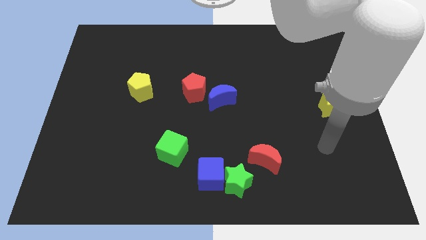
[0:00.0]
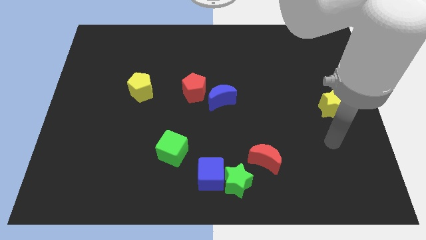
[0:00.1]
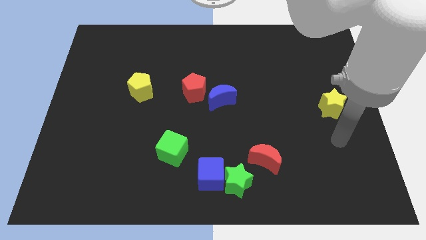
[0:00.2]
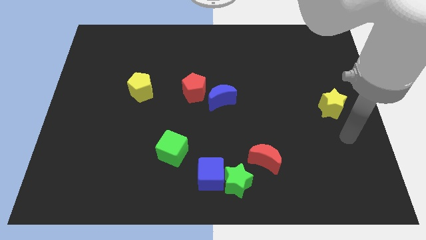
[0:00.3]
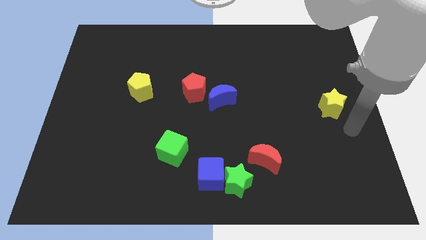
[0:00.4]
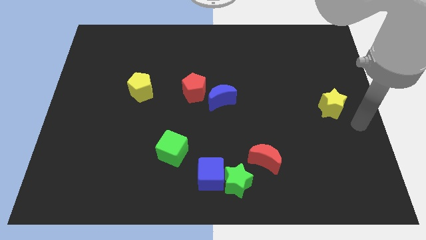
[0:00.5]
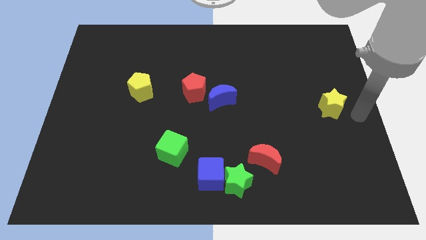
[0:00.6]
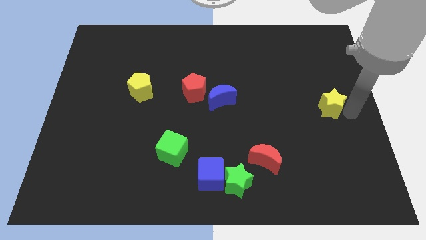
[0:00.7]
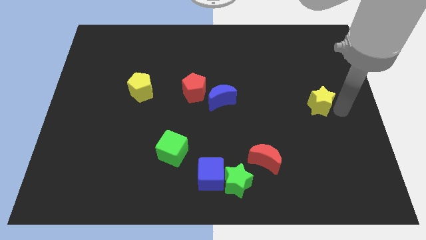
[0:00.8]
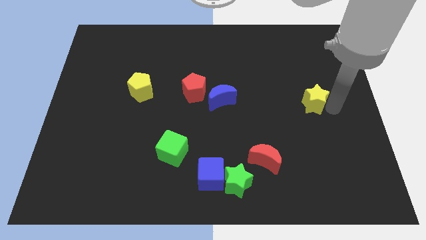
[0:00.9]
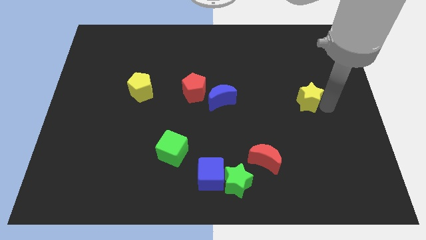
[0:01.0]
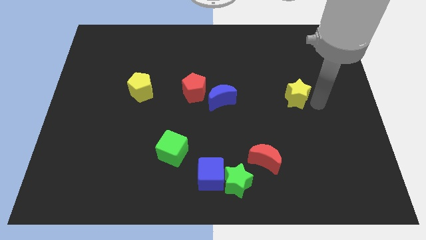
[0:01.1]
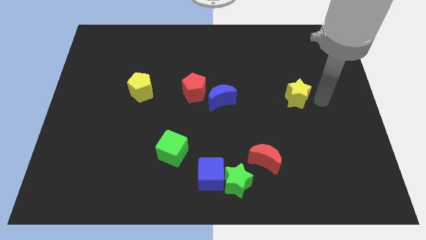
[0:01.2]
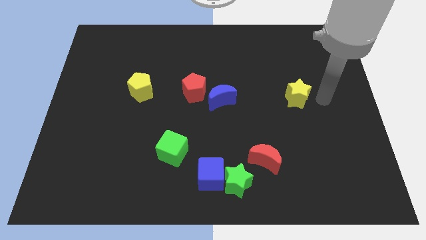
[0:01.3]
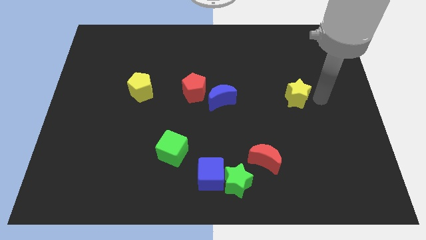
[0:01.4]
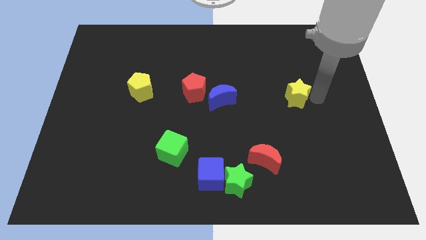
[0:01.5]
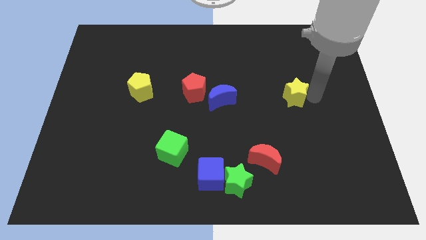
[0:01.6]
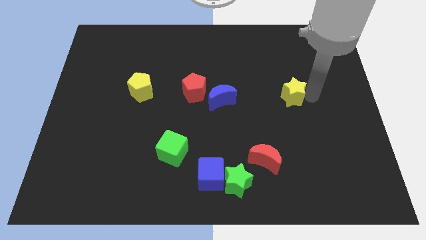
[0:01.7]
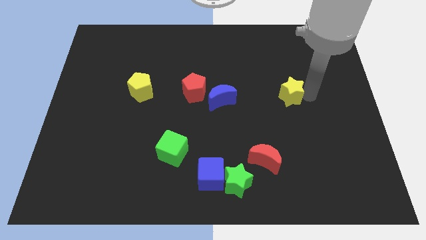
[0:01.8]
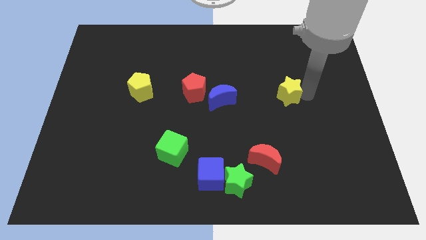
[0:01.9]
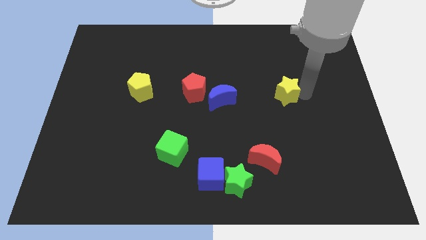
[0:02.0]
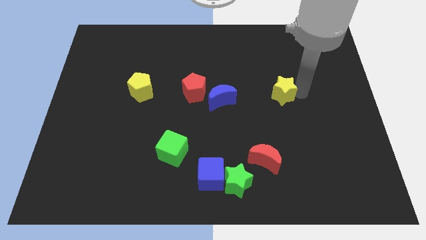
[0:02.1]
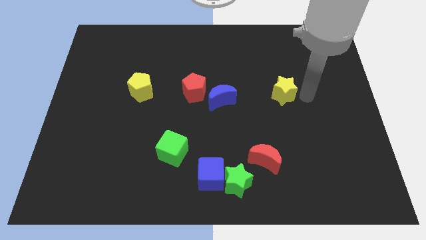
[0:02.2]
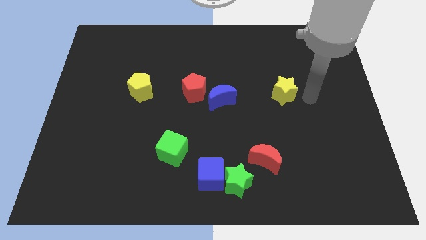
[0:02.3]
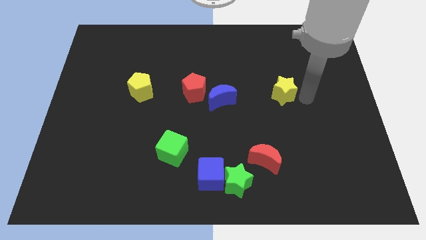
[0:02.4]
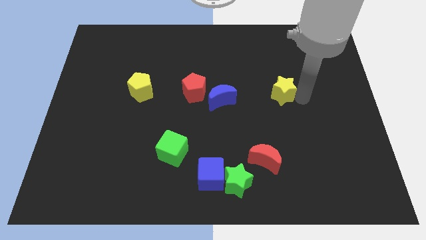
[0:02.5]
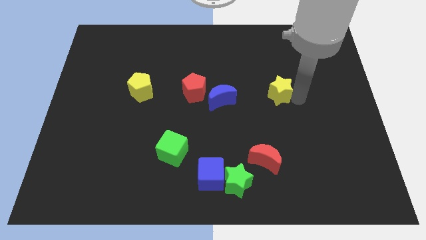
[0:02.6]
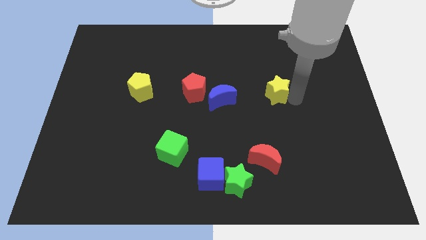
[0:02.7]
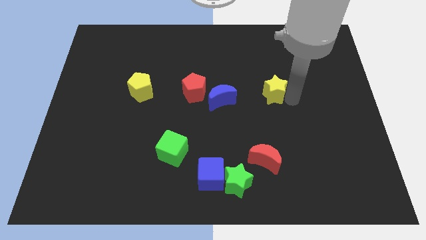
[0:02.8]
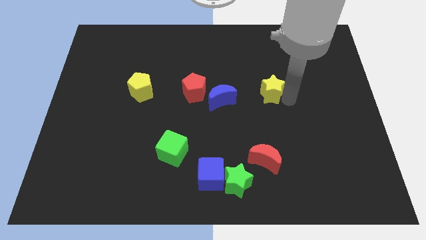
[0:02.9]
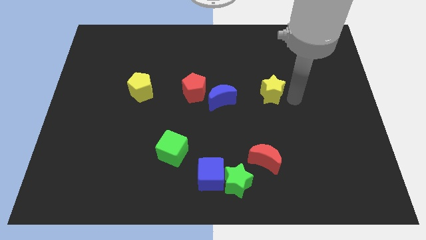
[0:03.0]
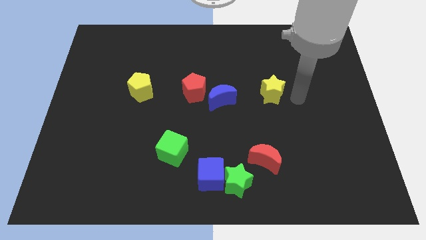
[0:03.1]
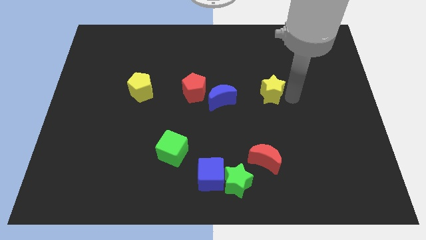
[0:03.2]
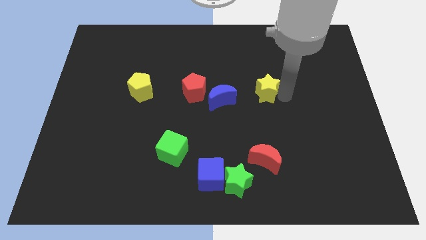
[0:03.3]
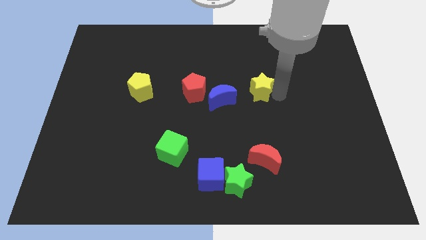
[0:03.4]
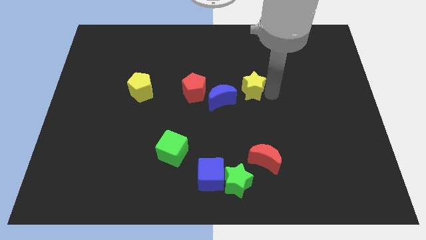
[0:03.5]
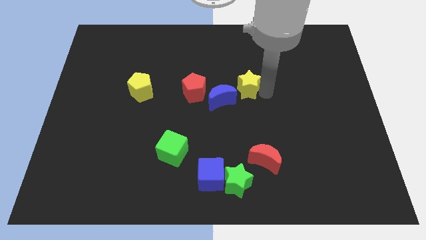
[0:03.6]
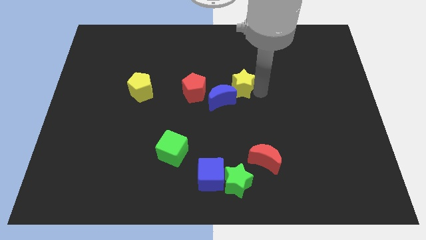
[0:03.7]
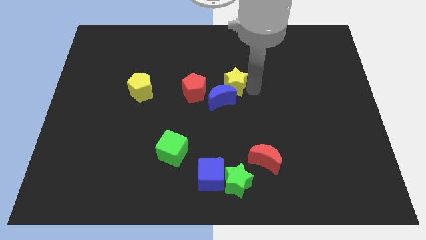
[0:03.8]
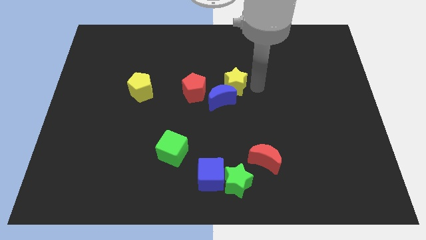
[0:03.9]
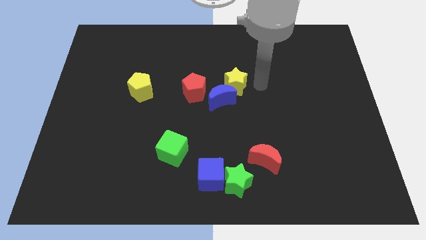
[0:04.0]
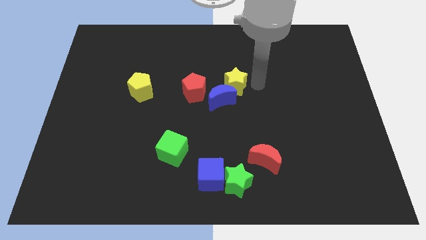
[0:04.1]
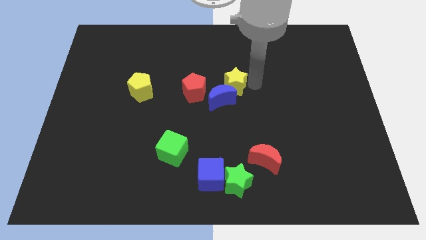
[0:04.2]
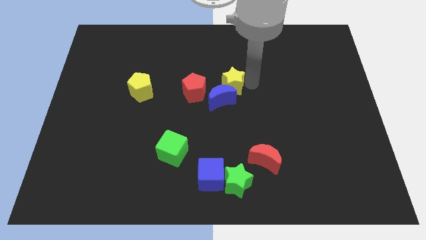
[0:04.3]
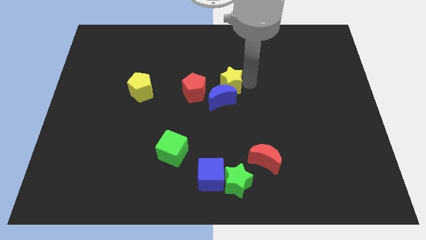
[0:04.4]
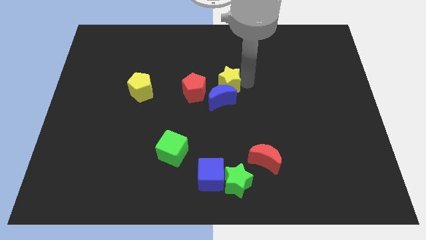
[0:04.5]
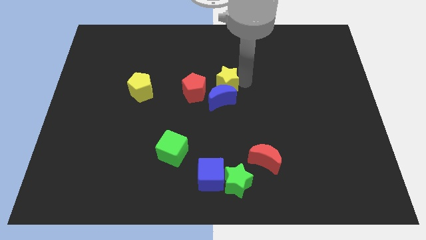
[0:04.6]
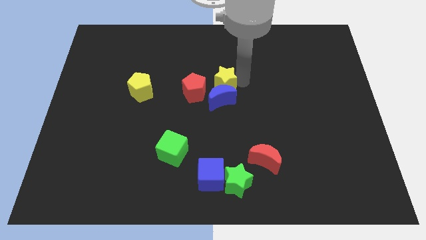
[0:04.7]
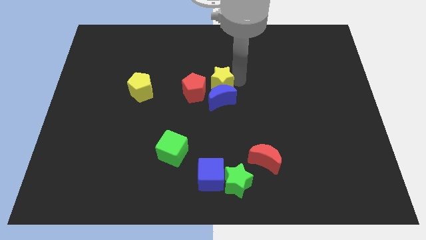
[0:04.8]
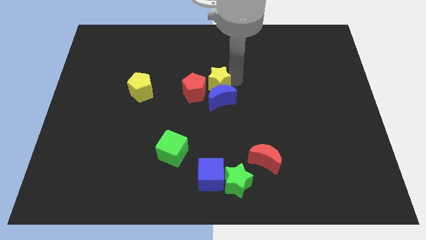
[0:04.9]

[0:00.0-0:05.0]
put the yellow star to the red pentagon

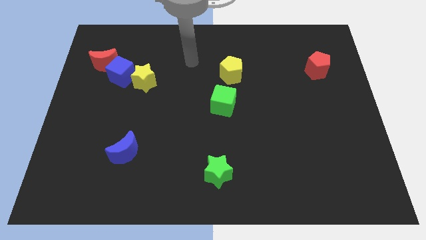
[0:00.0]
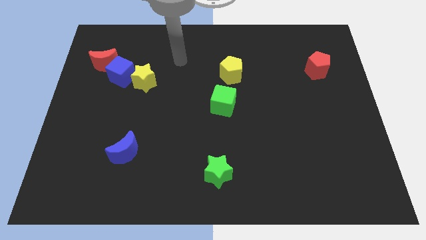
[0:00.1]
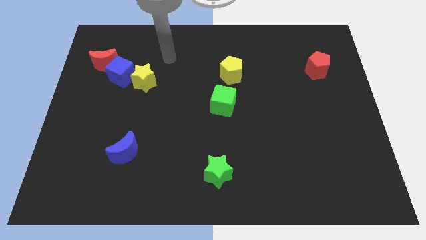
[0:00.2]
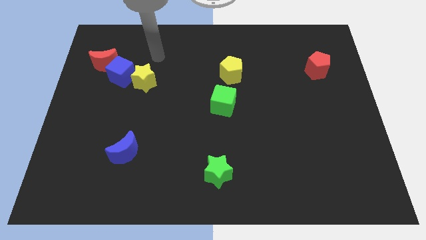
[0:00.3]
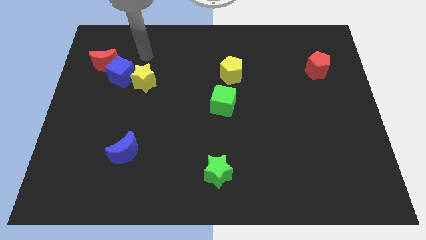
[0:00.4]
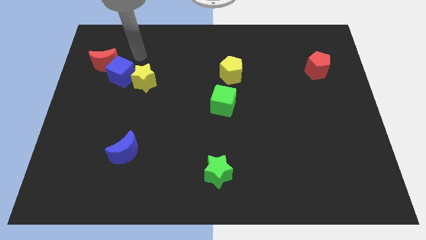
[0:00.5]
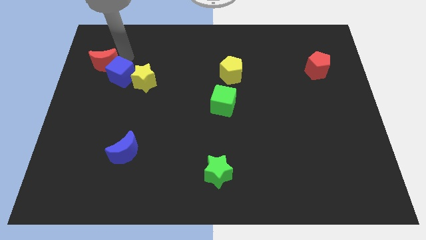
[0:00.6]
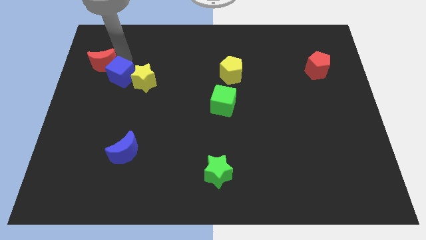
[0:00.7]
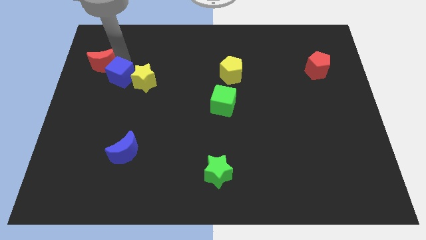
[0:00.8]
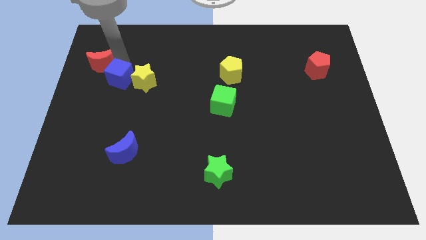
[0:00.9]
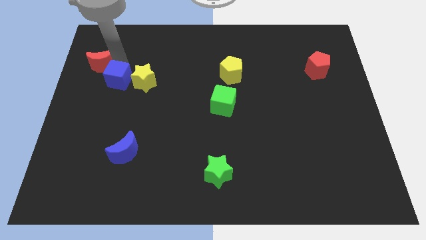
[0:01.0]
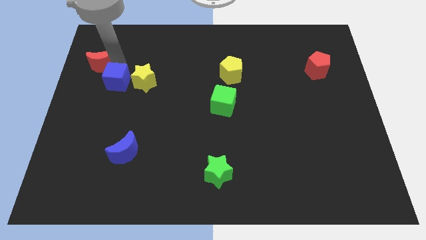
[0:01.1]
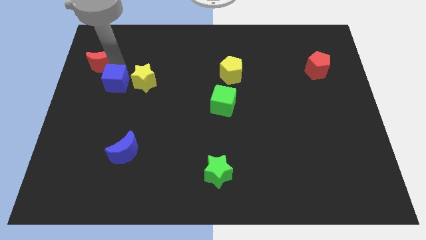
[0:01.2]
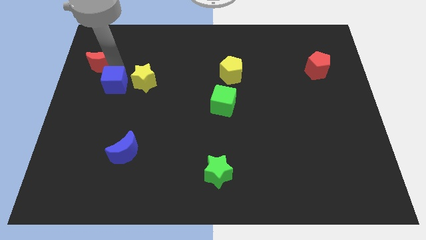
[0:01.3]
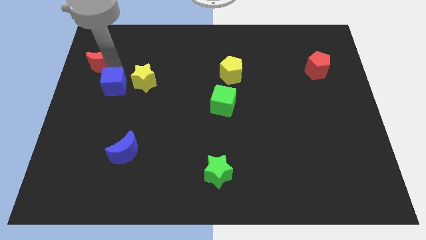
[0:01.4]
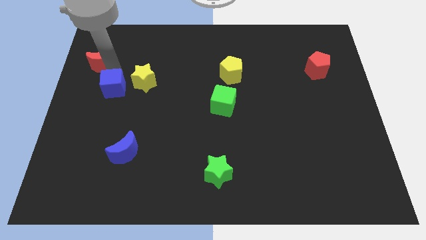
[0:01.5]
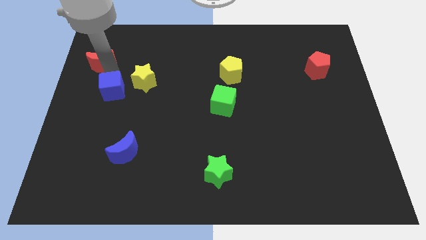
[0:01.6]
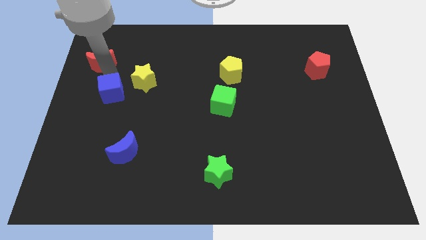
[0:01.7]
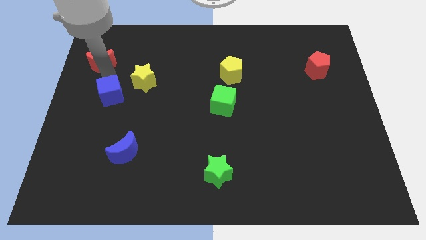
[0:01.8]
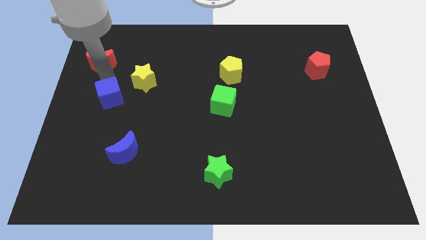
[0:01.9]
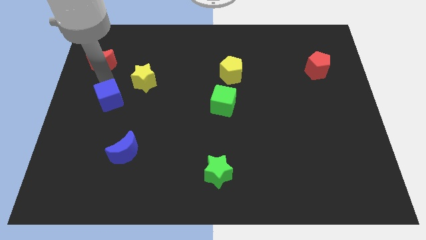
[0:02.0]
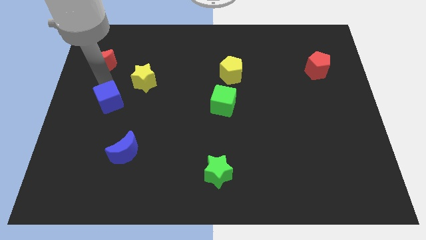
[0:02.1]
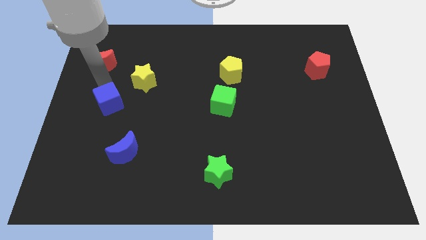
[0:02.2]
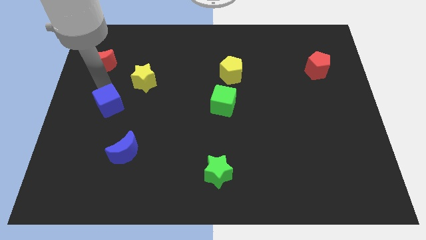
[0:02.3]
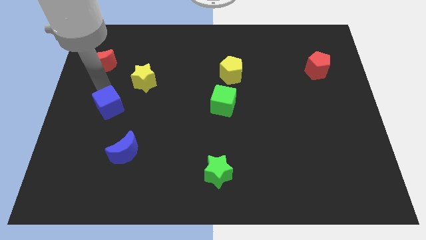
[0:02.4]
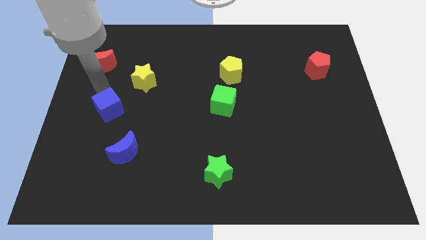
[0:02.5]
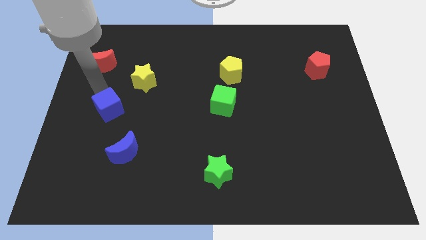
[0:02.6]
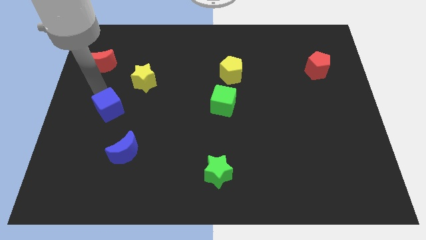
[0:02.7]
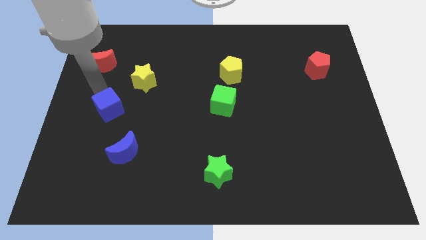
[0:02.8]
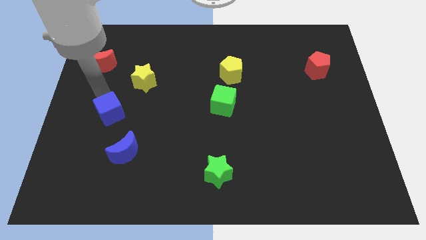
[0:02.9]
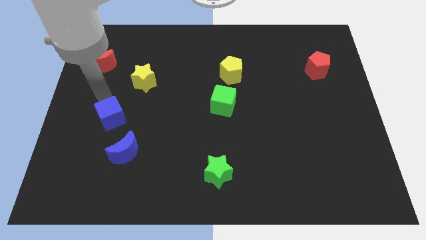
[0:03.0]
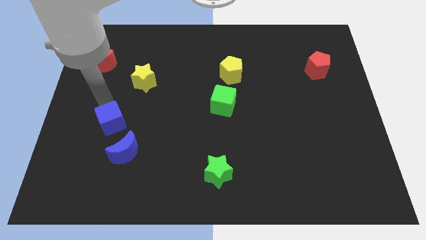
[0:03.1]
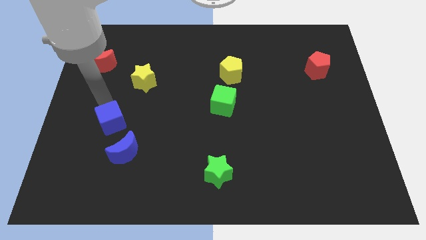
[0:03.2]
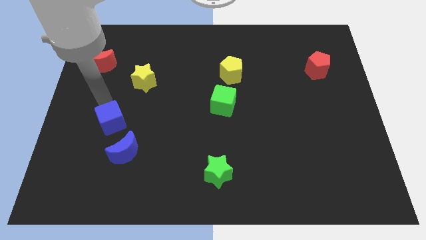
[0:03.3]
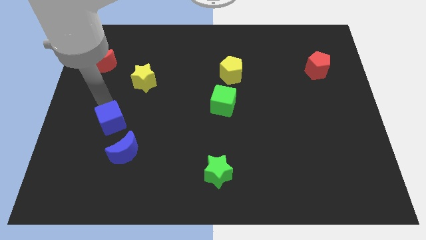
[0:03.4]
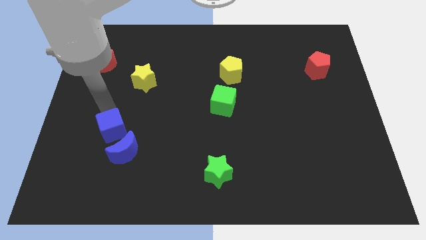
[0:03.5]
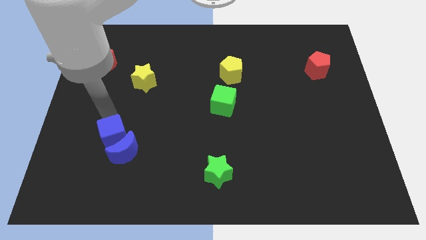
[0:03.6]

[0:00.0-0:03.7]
push the blue cube towards the blue moon
